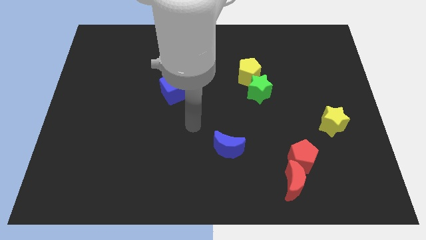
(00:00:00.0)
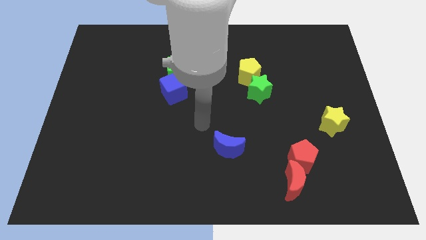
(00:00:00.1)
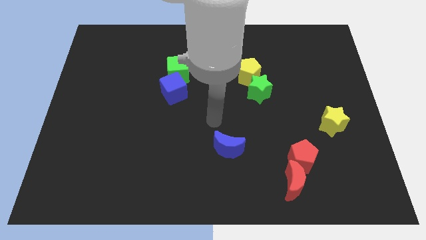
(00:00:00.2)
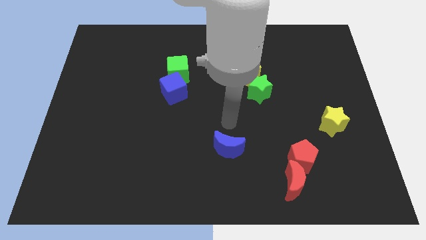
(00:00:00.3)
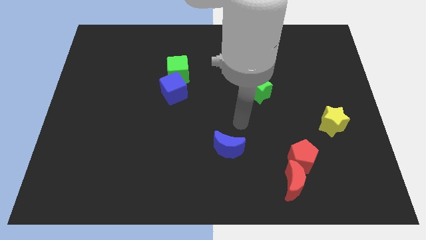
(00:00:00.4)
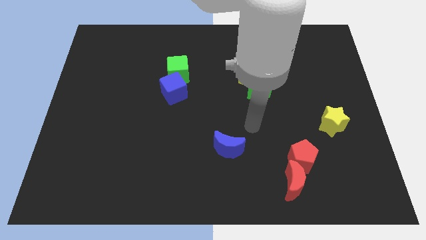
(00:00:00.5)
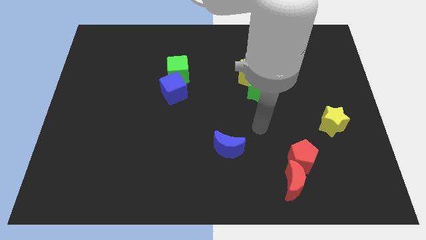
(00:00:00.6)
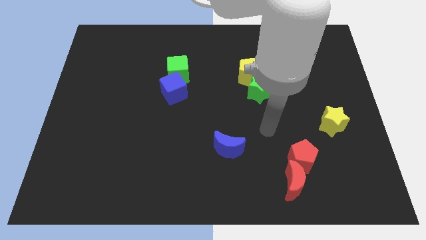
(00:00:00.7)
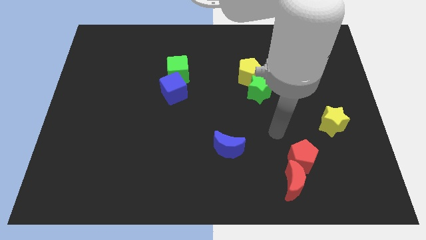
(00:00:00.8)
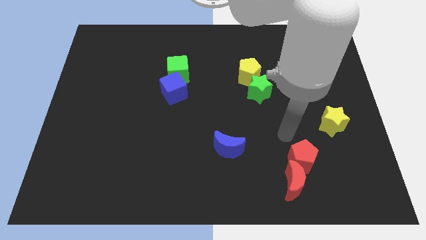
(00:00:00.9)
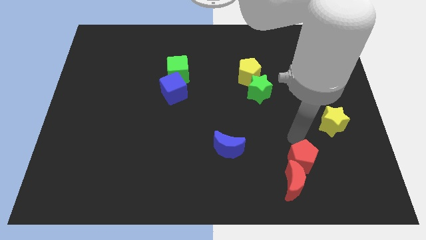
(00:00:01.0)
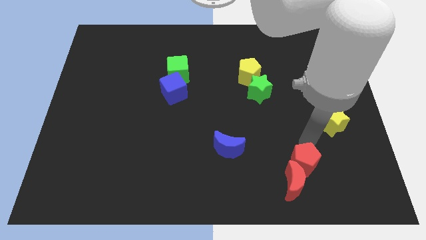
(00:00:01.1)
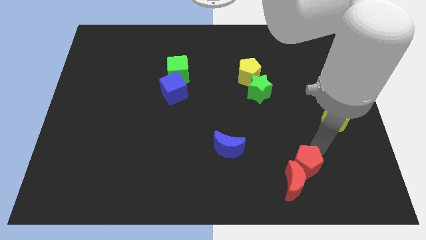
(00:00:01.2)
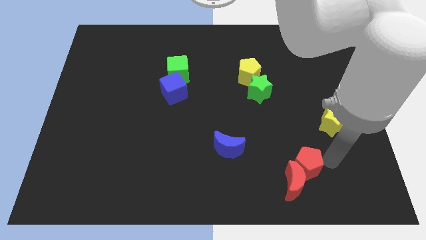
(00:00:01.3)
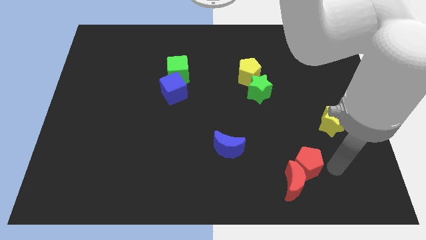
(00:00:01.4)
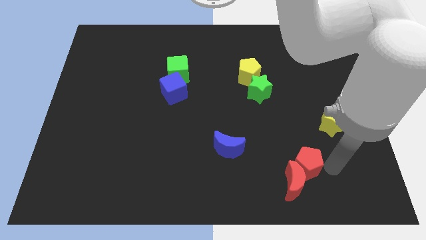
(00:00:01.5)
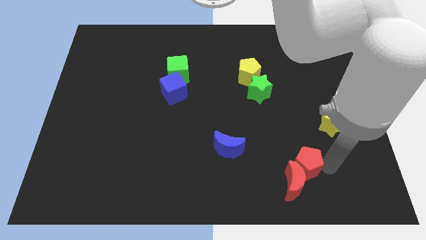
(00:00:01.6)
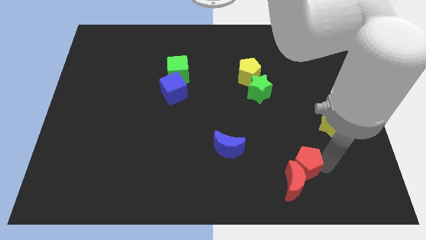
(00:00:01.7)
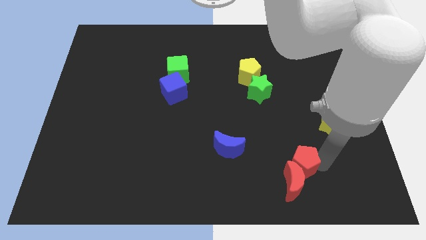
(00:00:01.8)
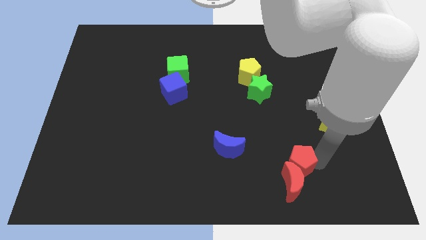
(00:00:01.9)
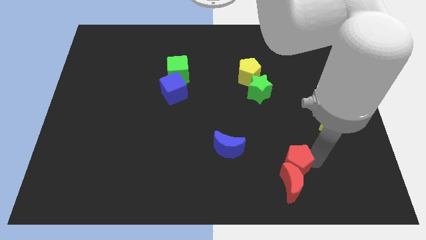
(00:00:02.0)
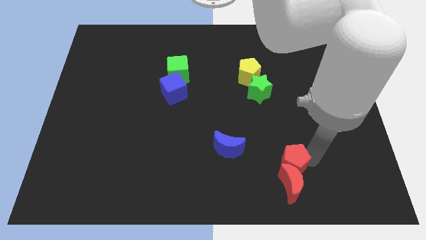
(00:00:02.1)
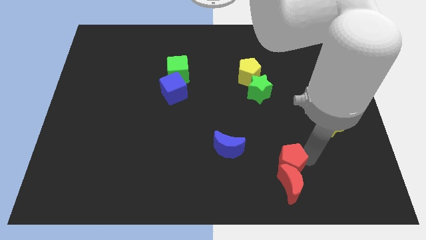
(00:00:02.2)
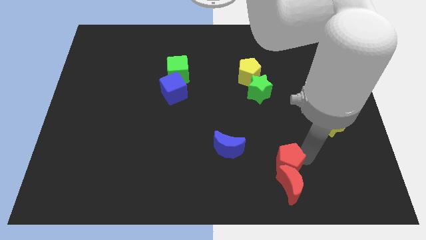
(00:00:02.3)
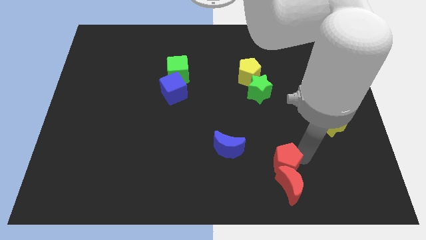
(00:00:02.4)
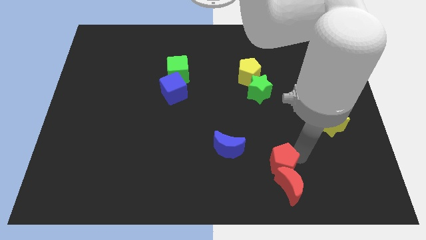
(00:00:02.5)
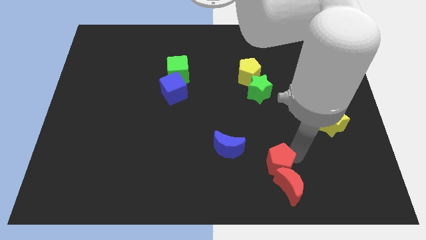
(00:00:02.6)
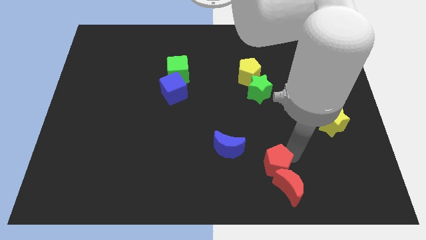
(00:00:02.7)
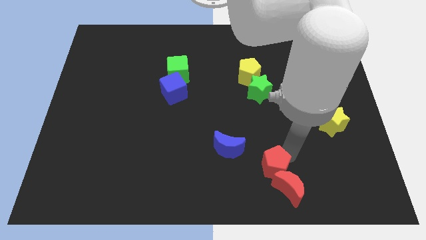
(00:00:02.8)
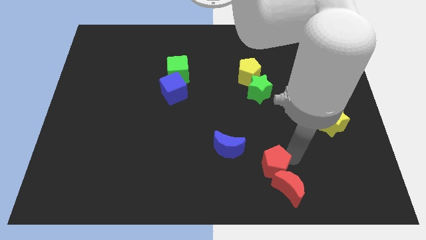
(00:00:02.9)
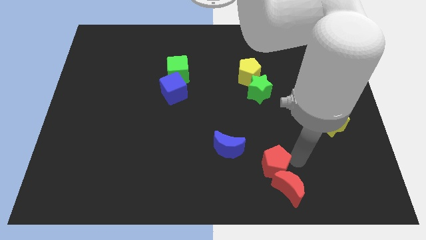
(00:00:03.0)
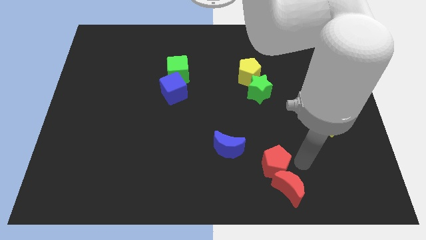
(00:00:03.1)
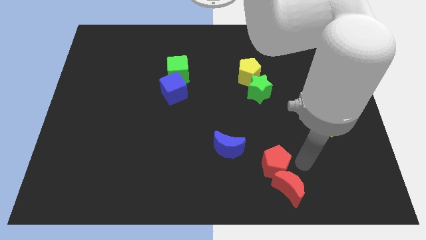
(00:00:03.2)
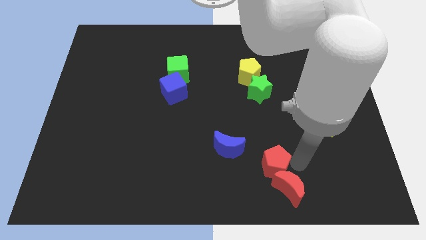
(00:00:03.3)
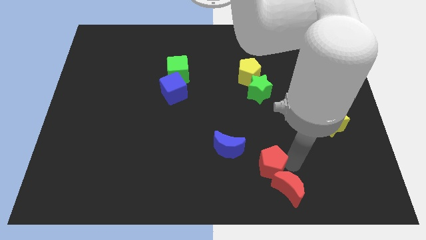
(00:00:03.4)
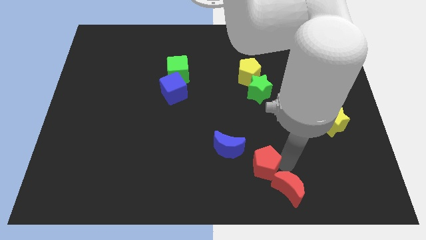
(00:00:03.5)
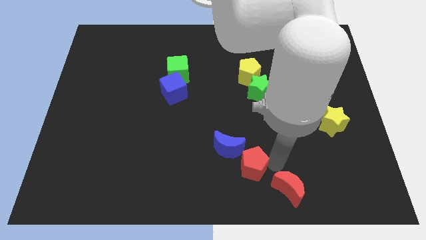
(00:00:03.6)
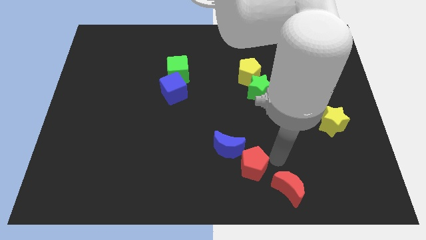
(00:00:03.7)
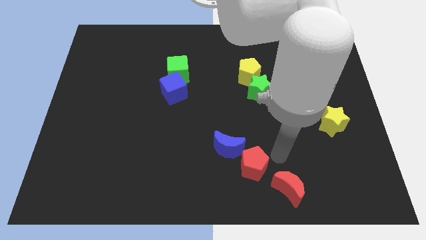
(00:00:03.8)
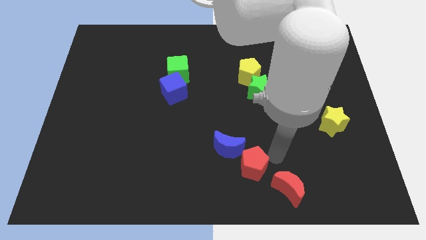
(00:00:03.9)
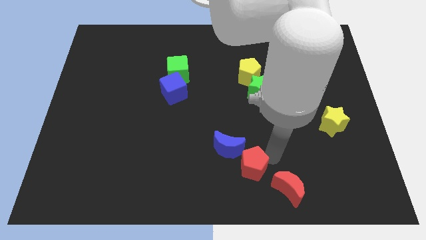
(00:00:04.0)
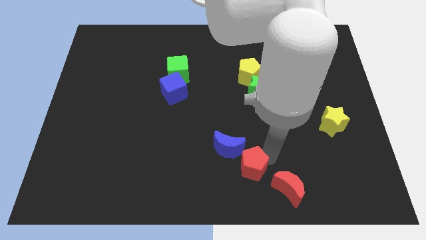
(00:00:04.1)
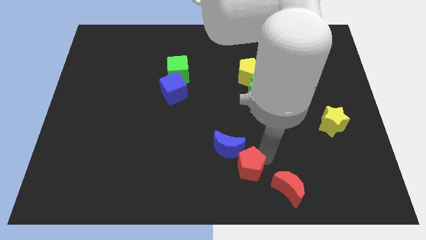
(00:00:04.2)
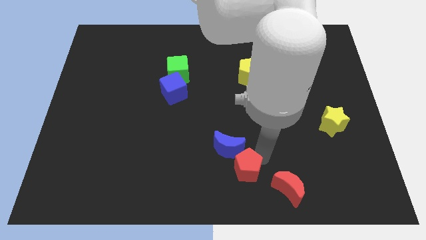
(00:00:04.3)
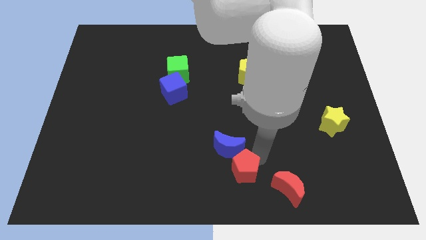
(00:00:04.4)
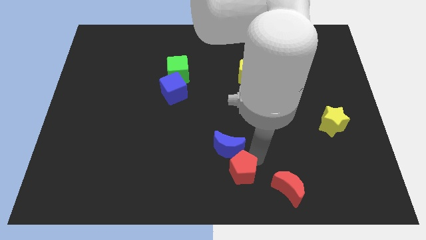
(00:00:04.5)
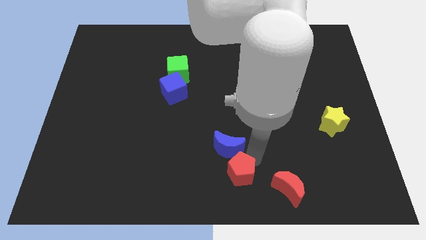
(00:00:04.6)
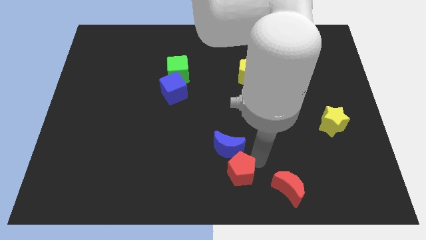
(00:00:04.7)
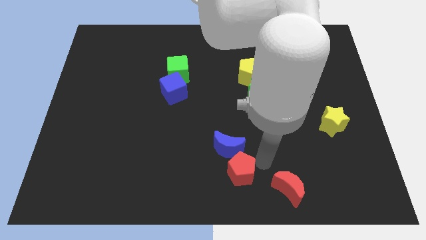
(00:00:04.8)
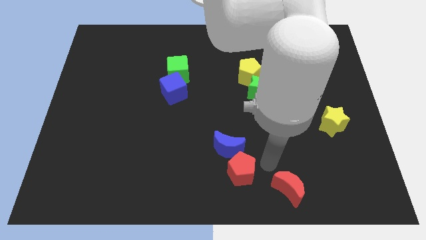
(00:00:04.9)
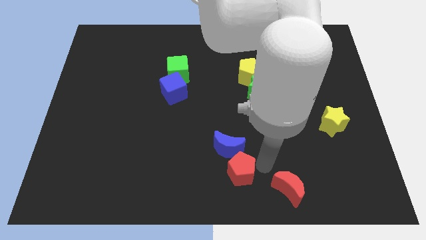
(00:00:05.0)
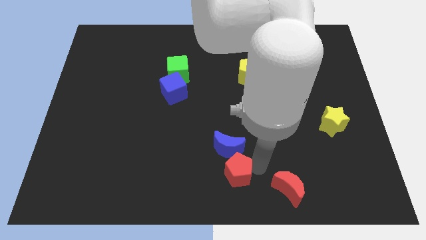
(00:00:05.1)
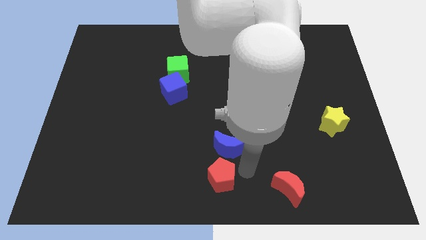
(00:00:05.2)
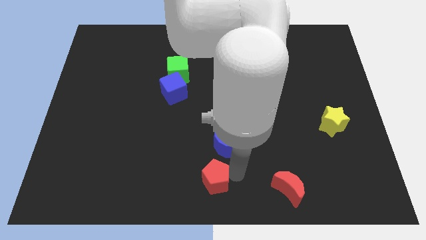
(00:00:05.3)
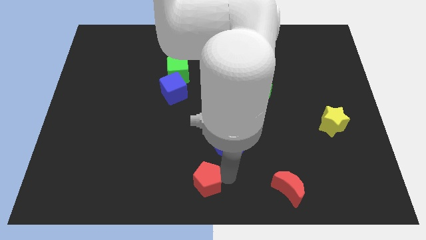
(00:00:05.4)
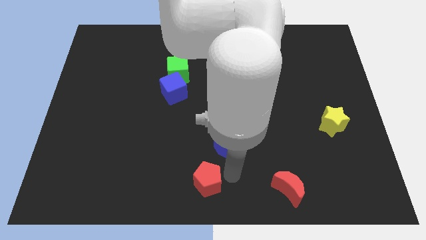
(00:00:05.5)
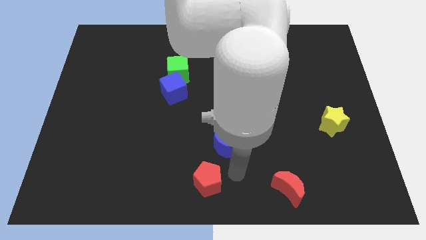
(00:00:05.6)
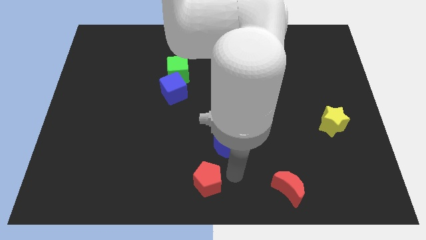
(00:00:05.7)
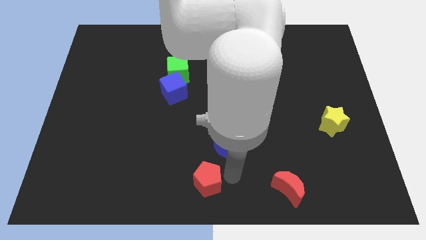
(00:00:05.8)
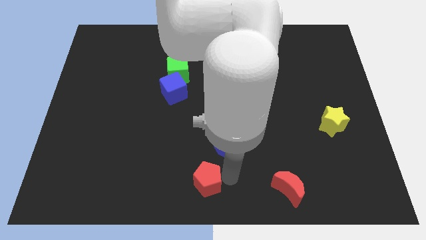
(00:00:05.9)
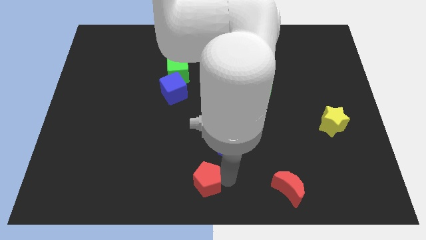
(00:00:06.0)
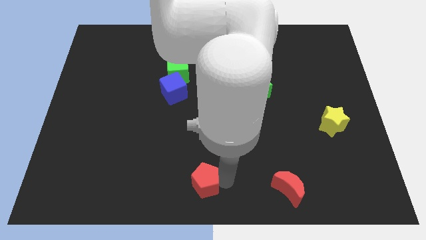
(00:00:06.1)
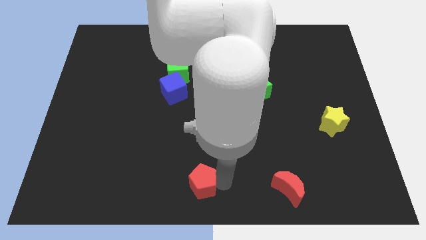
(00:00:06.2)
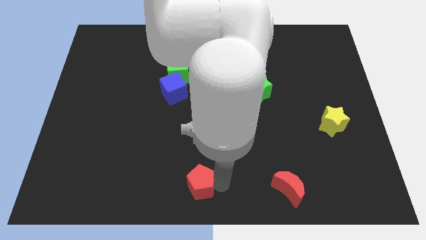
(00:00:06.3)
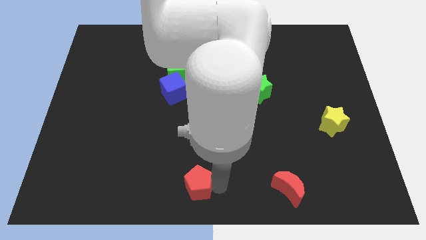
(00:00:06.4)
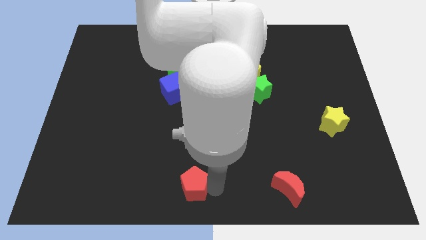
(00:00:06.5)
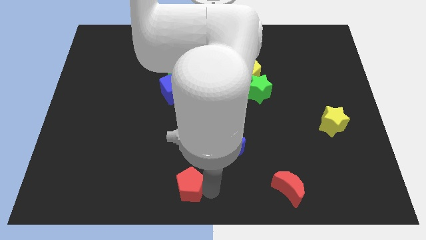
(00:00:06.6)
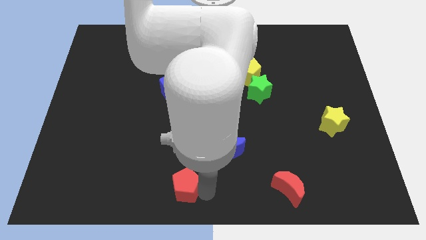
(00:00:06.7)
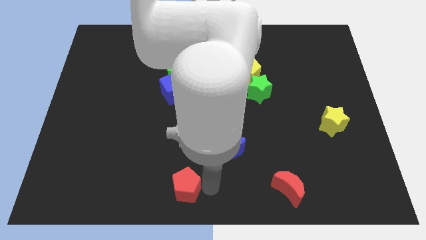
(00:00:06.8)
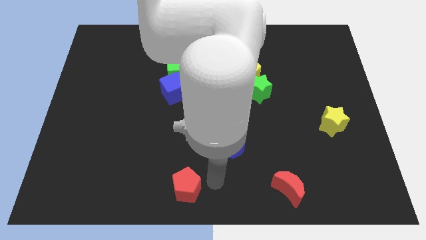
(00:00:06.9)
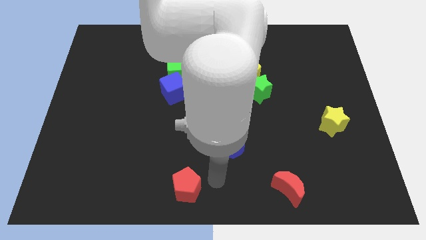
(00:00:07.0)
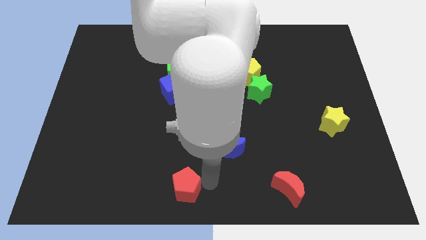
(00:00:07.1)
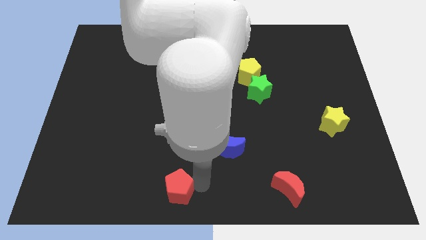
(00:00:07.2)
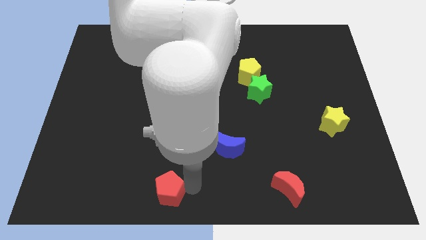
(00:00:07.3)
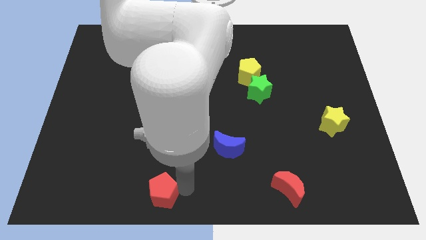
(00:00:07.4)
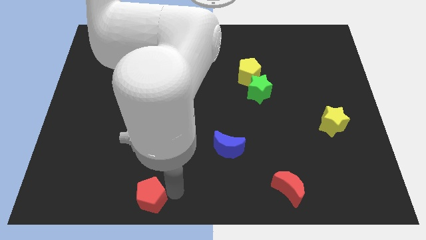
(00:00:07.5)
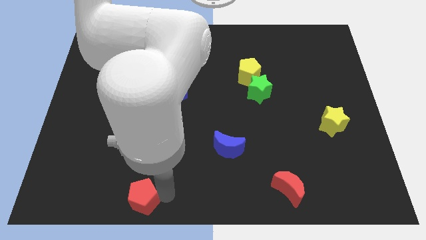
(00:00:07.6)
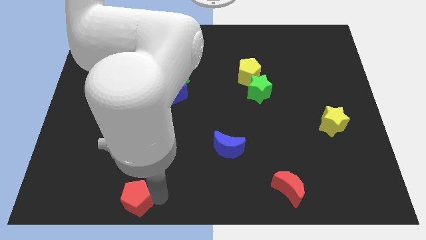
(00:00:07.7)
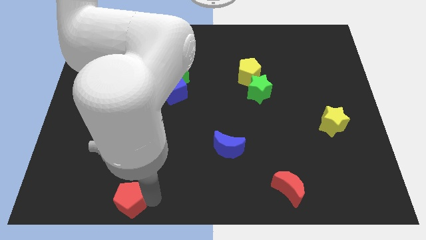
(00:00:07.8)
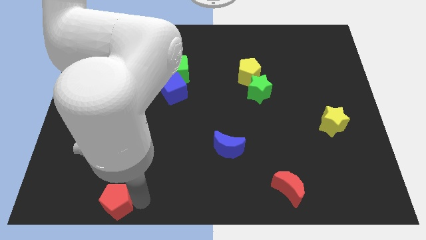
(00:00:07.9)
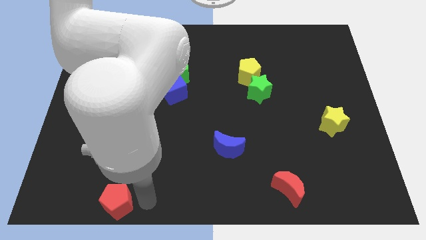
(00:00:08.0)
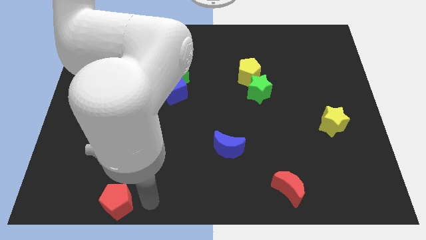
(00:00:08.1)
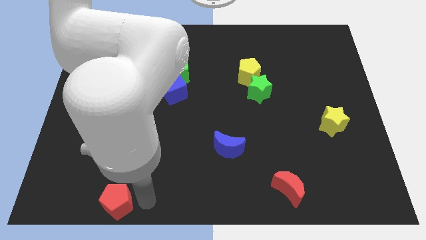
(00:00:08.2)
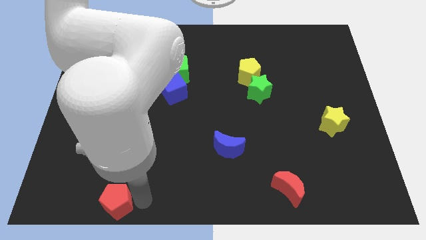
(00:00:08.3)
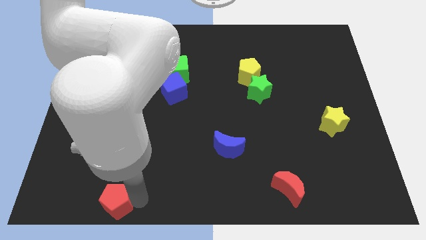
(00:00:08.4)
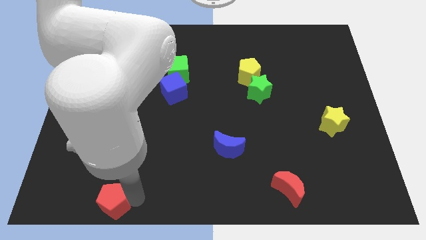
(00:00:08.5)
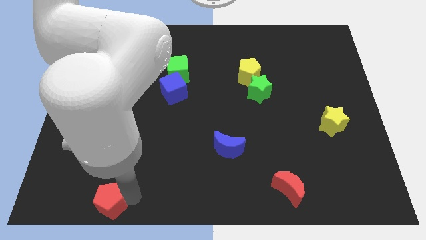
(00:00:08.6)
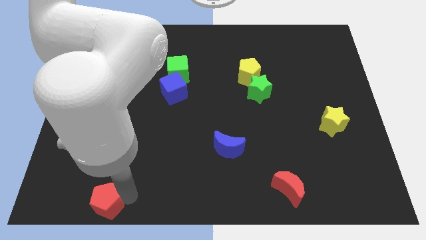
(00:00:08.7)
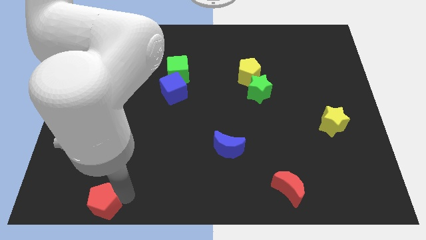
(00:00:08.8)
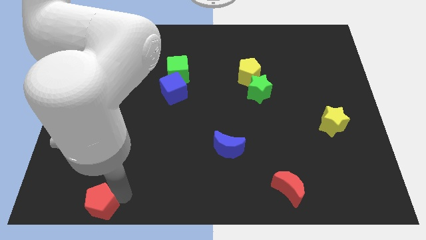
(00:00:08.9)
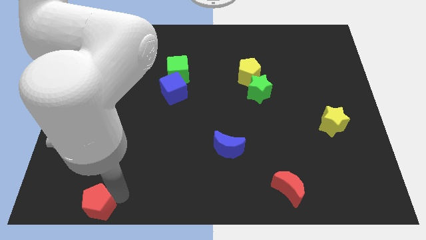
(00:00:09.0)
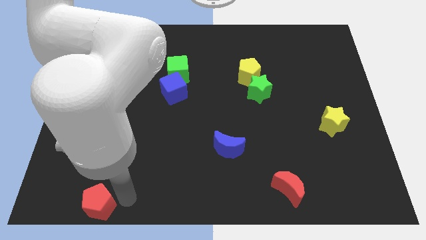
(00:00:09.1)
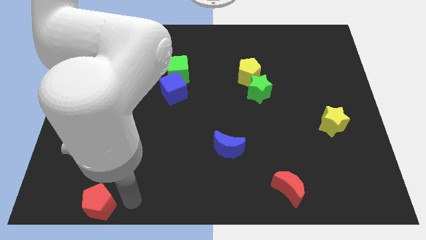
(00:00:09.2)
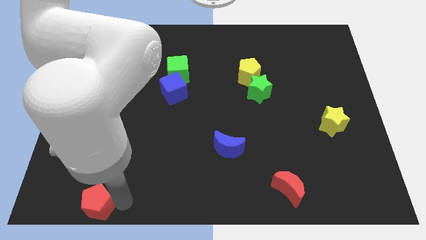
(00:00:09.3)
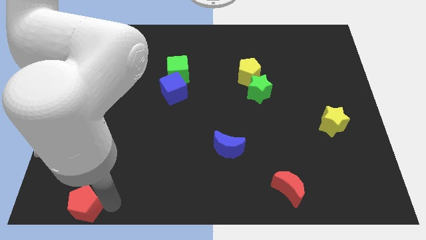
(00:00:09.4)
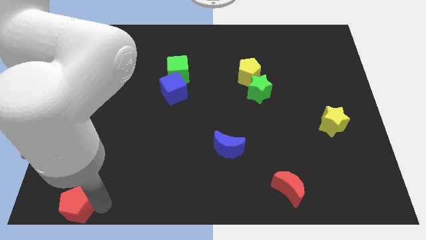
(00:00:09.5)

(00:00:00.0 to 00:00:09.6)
put the red pentagon to the bottom left of the board
